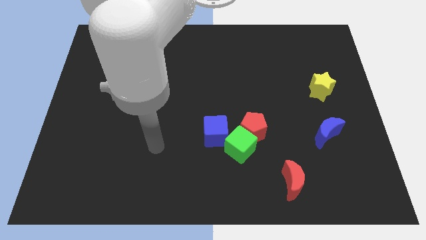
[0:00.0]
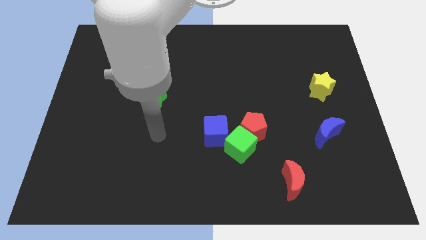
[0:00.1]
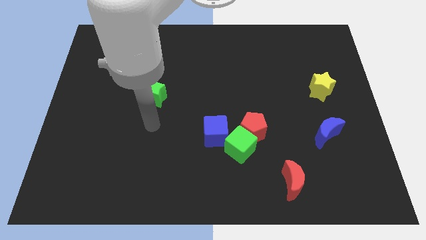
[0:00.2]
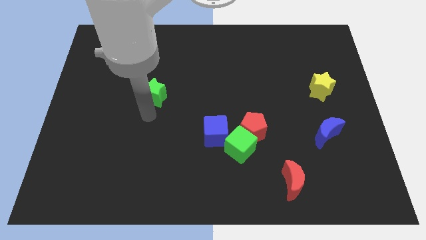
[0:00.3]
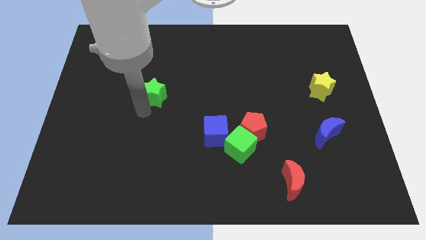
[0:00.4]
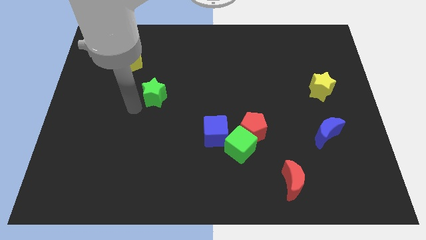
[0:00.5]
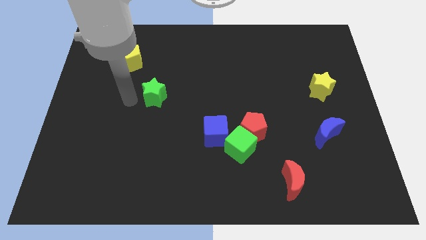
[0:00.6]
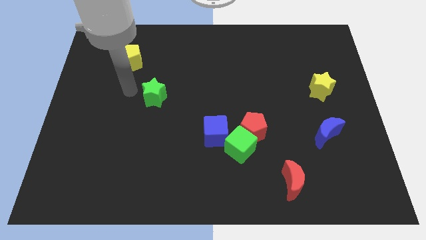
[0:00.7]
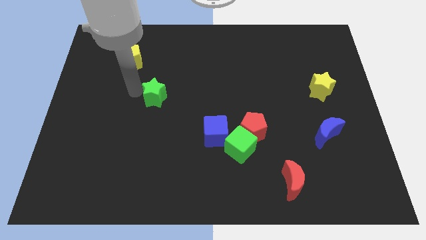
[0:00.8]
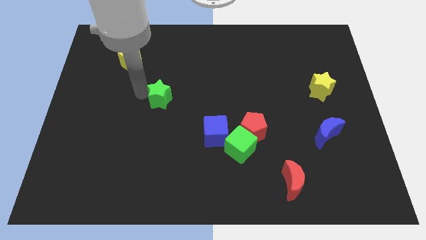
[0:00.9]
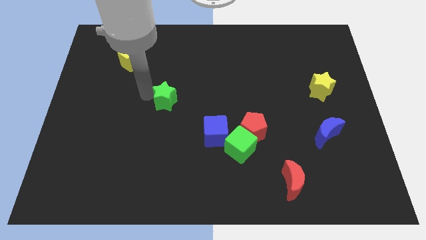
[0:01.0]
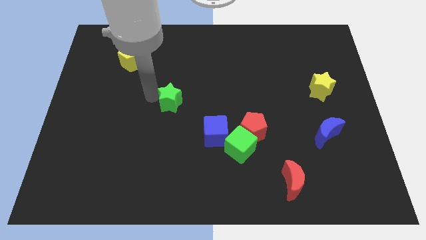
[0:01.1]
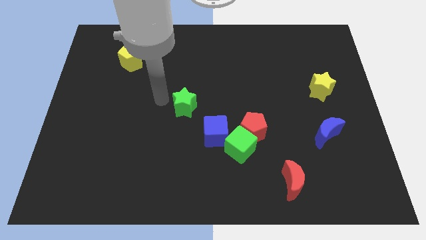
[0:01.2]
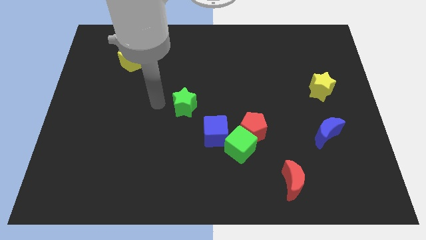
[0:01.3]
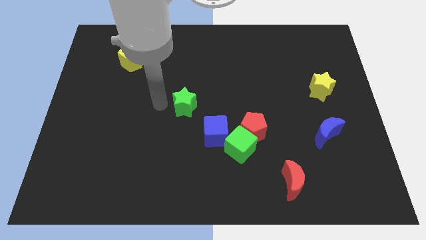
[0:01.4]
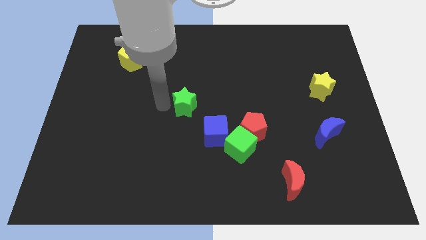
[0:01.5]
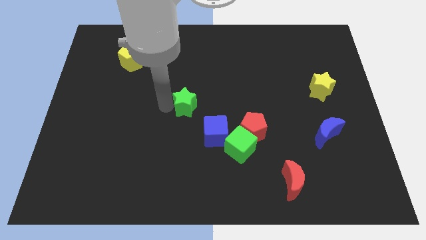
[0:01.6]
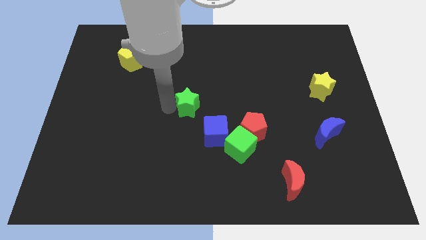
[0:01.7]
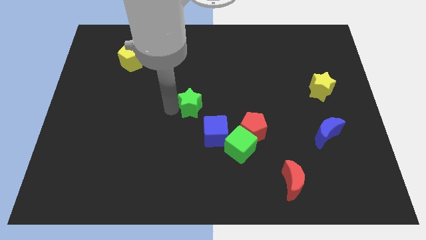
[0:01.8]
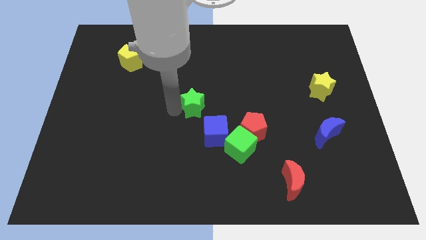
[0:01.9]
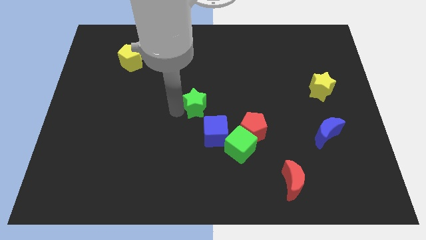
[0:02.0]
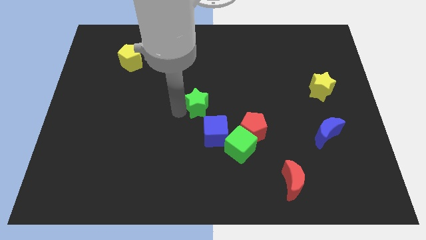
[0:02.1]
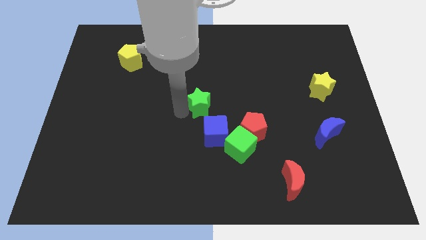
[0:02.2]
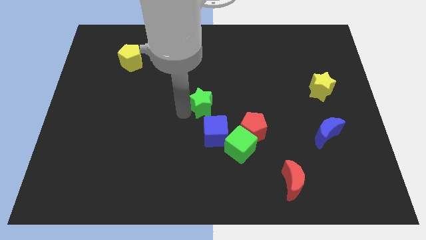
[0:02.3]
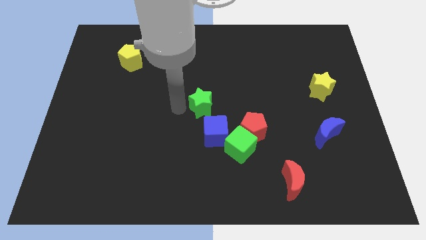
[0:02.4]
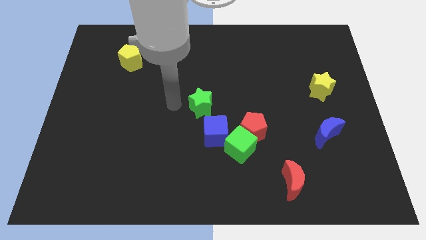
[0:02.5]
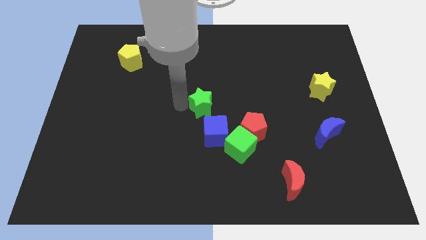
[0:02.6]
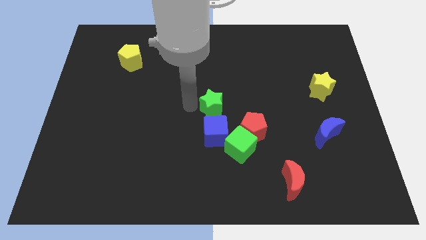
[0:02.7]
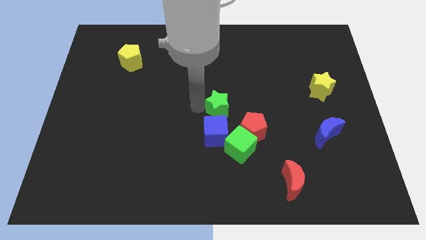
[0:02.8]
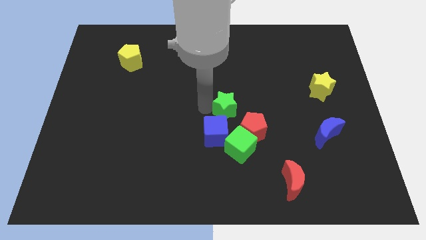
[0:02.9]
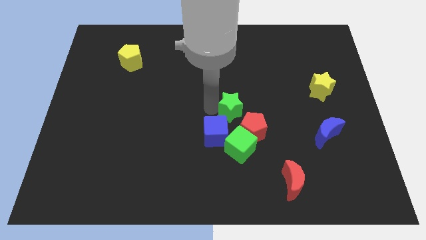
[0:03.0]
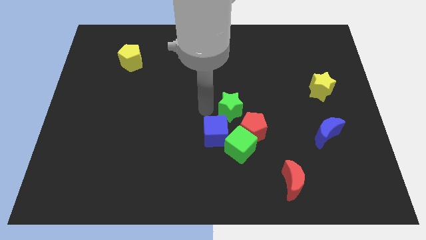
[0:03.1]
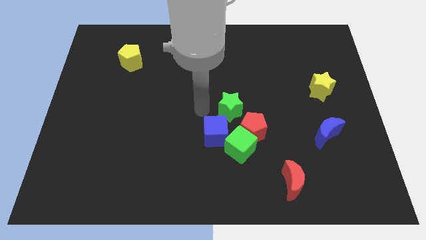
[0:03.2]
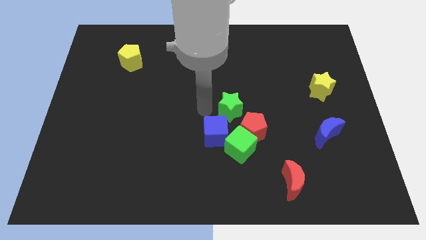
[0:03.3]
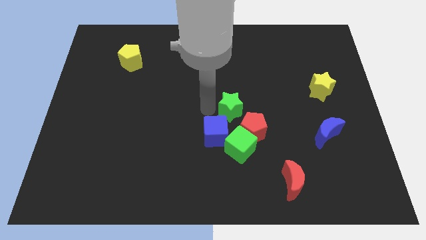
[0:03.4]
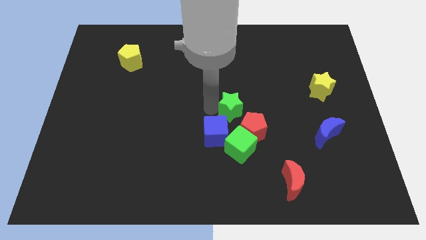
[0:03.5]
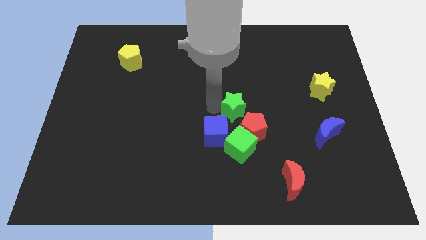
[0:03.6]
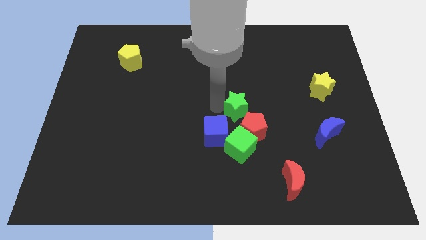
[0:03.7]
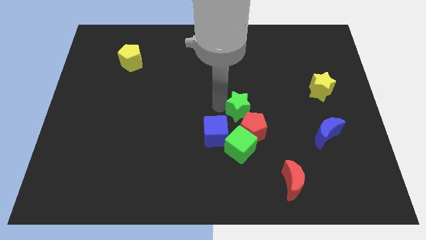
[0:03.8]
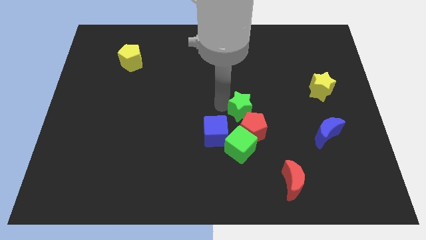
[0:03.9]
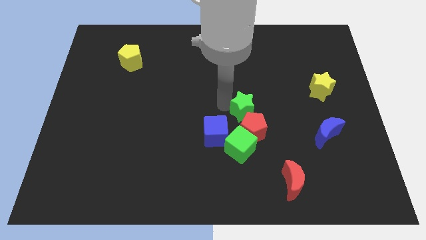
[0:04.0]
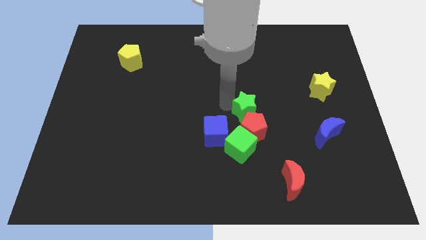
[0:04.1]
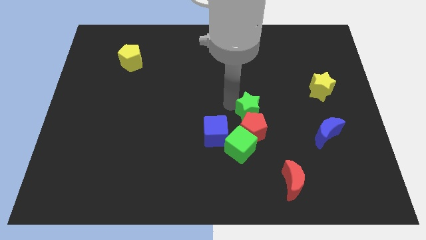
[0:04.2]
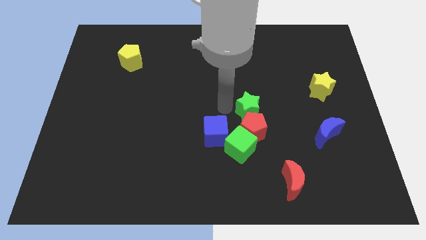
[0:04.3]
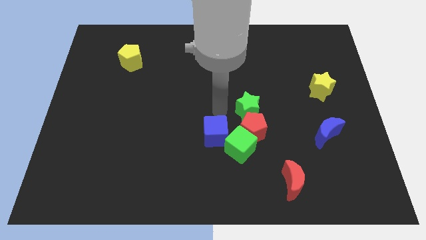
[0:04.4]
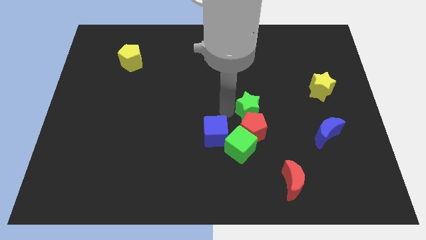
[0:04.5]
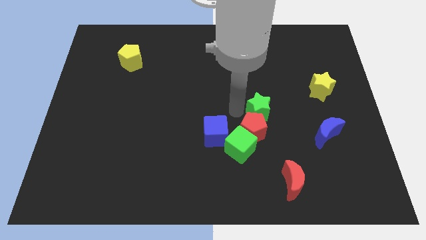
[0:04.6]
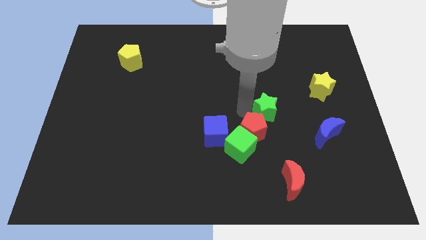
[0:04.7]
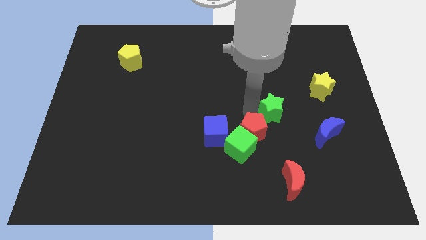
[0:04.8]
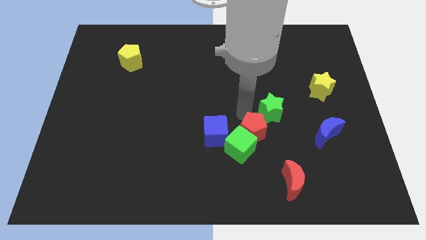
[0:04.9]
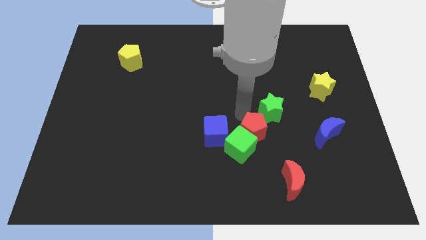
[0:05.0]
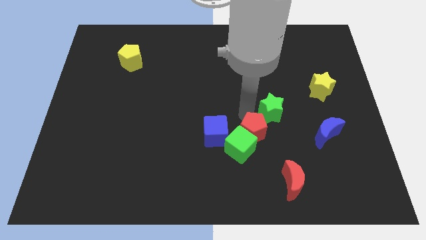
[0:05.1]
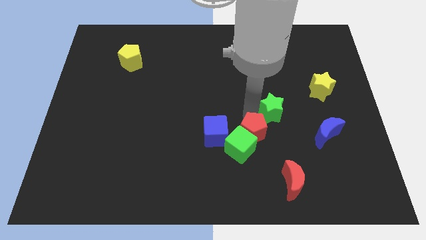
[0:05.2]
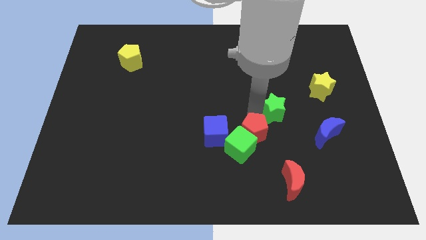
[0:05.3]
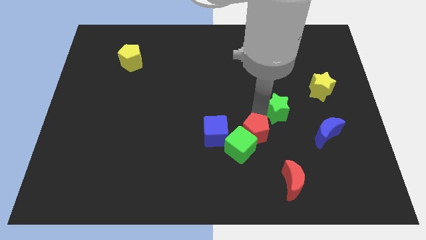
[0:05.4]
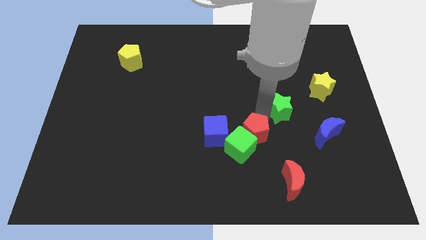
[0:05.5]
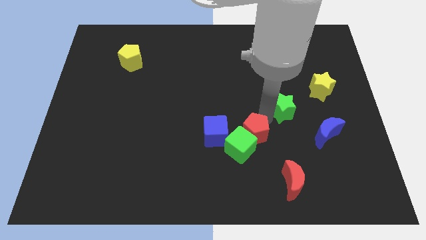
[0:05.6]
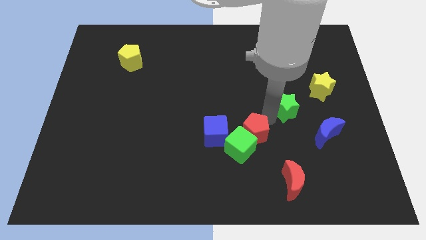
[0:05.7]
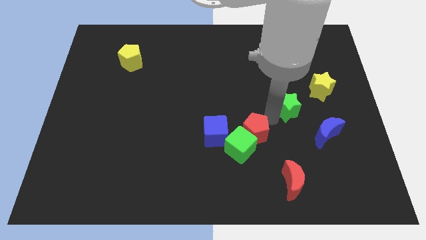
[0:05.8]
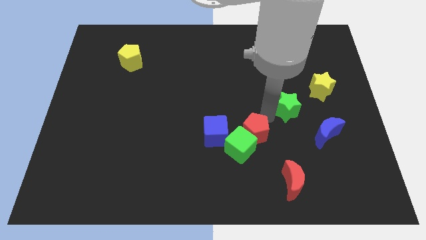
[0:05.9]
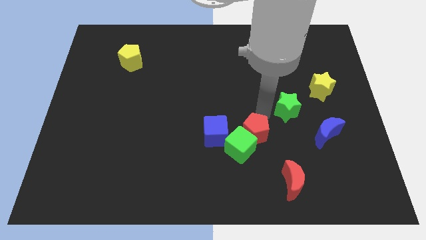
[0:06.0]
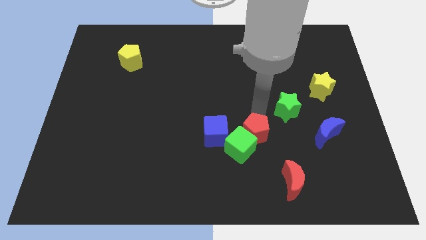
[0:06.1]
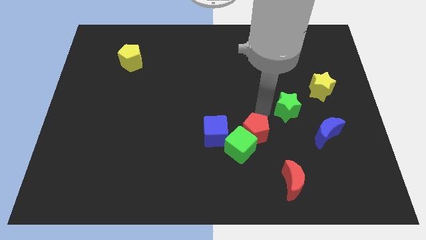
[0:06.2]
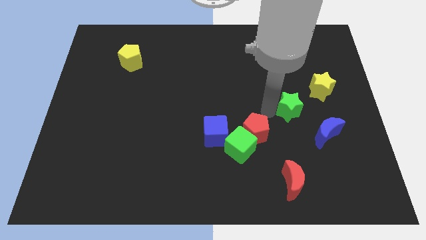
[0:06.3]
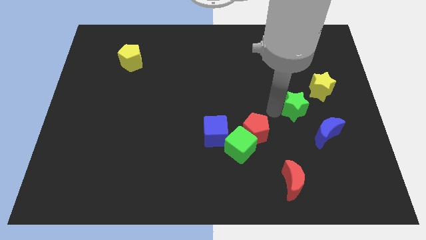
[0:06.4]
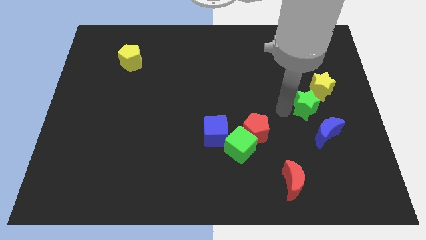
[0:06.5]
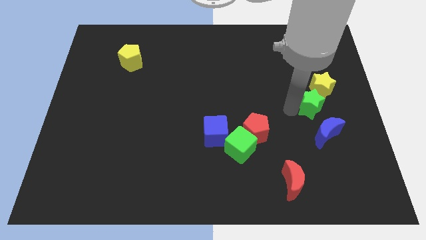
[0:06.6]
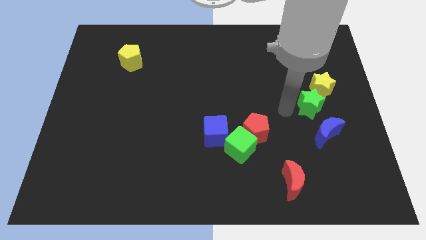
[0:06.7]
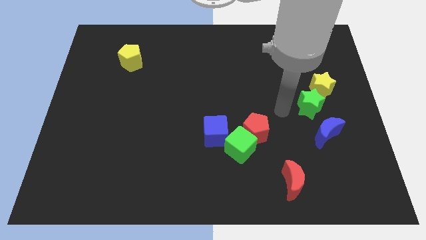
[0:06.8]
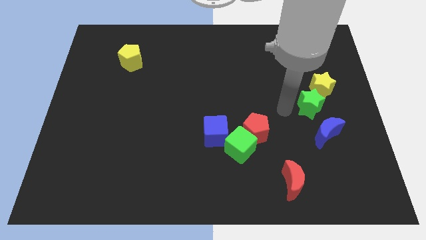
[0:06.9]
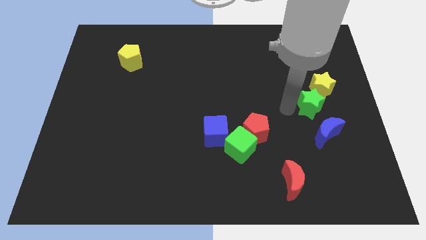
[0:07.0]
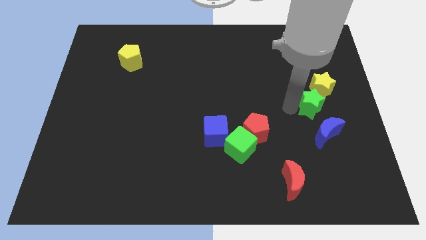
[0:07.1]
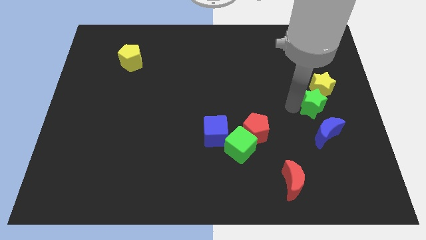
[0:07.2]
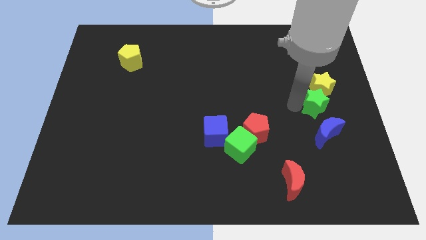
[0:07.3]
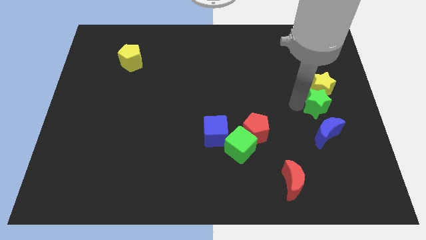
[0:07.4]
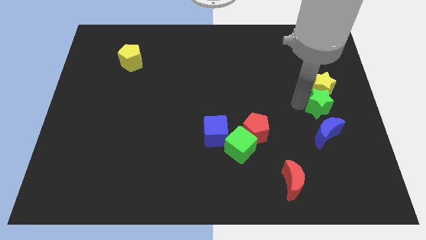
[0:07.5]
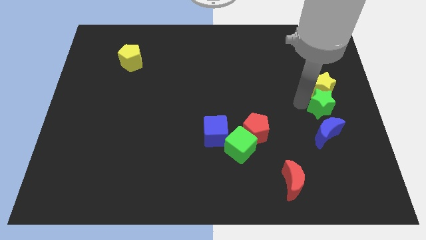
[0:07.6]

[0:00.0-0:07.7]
put the green star to the right side of the board
